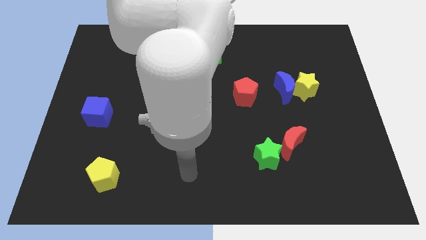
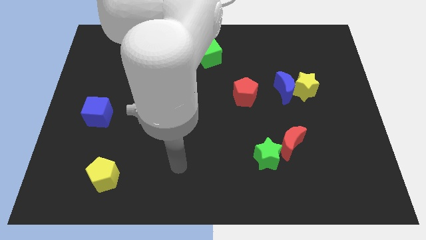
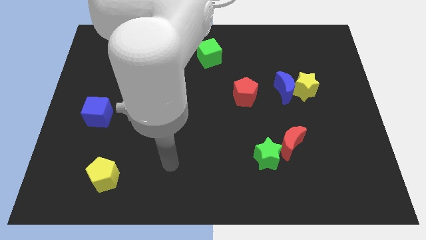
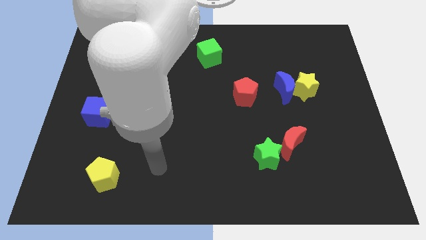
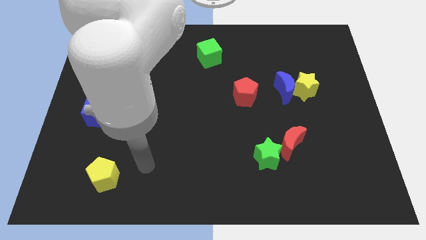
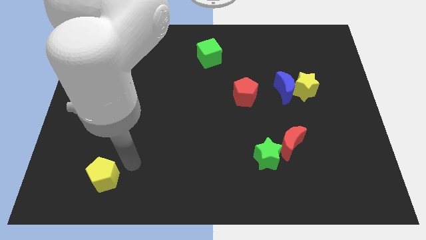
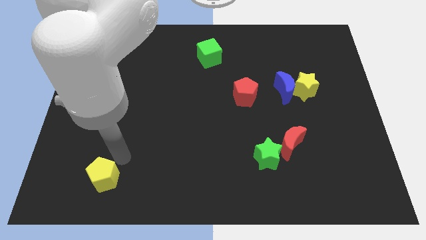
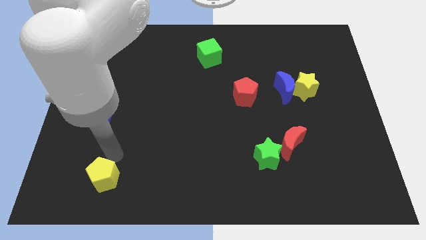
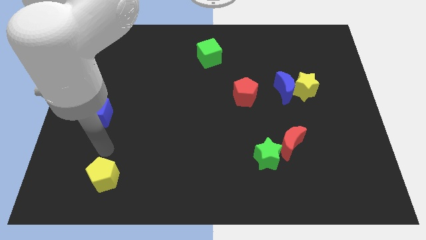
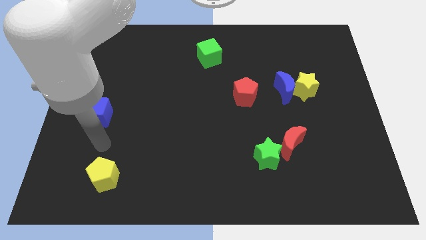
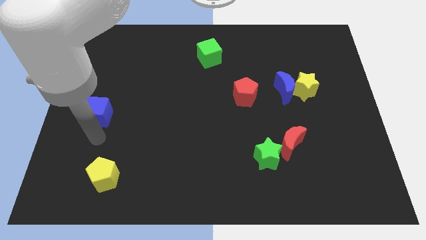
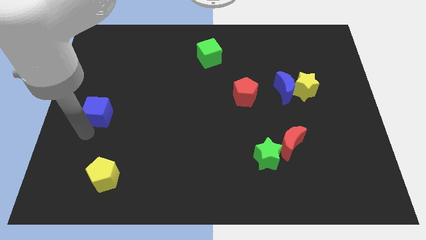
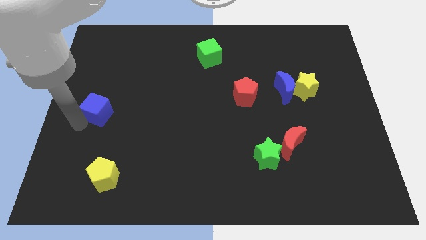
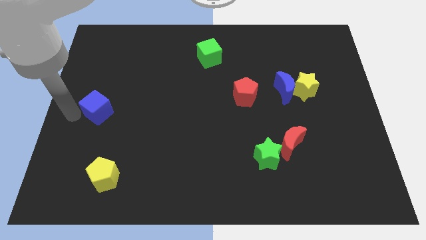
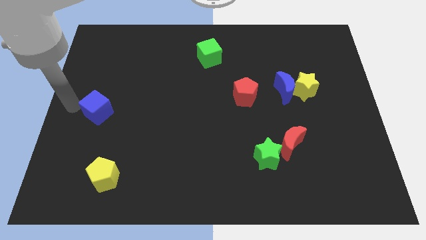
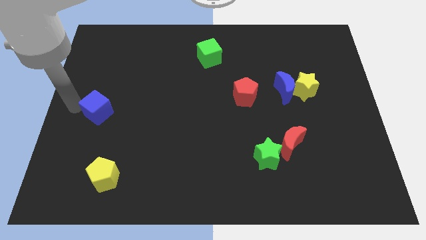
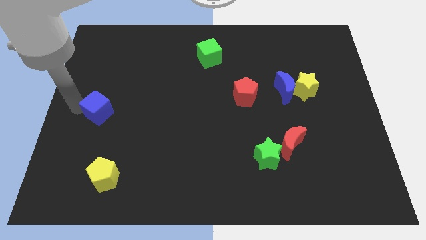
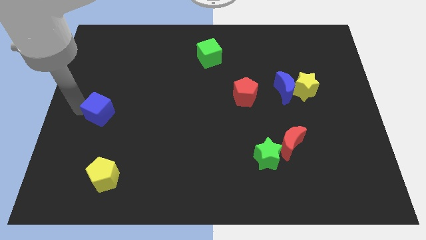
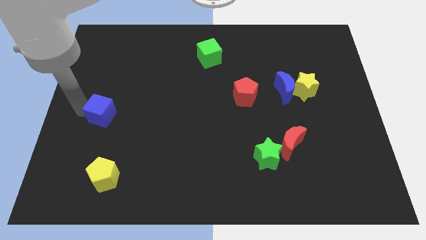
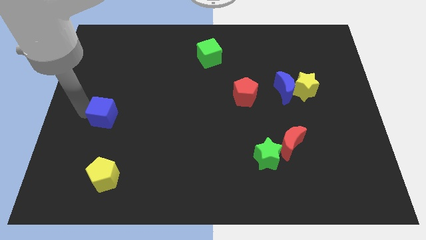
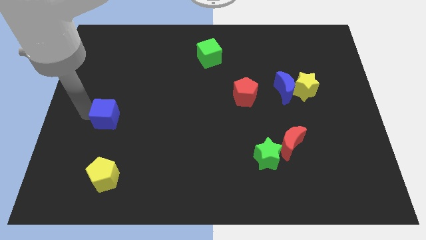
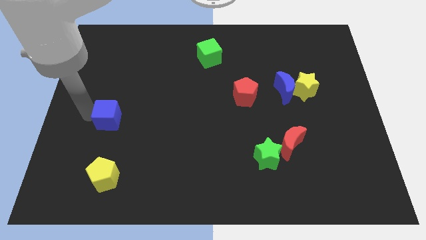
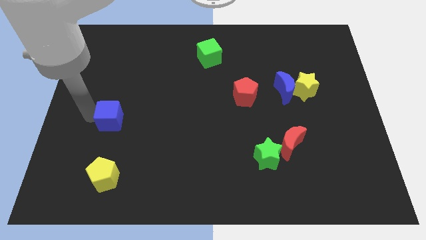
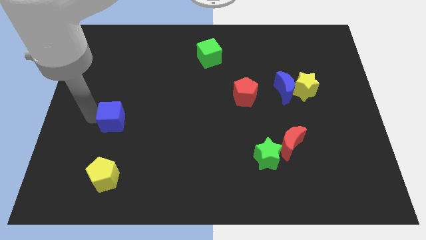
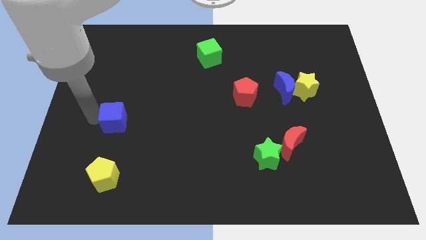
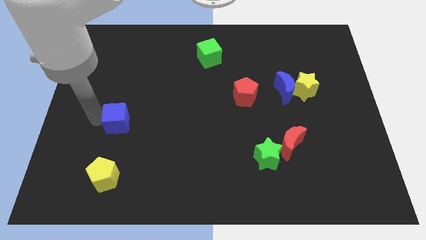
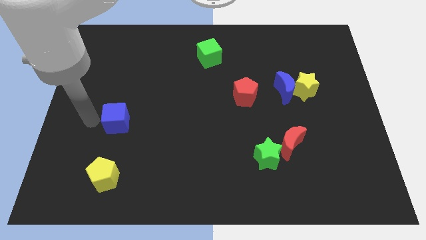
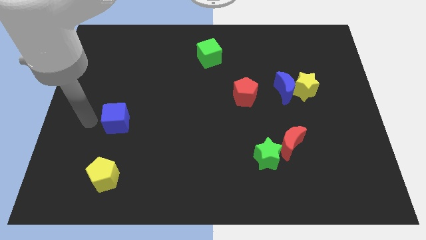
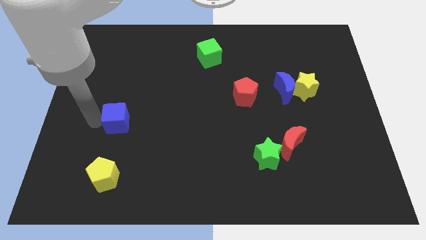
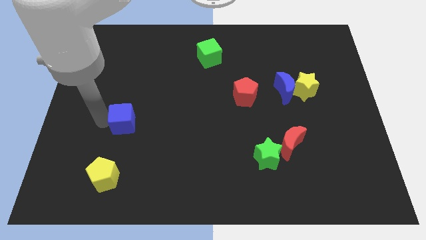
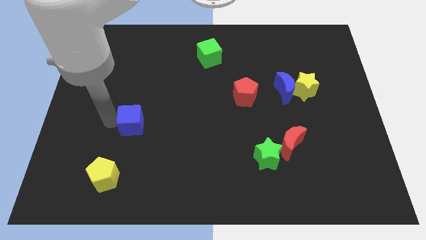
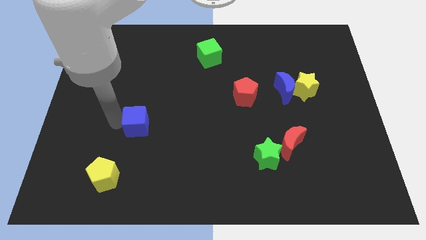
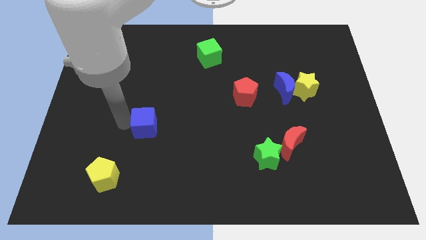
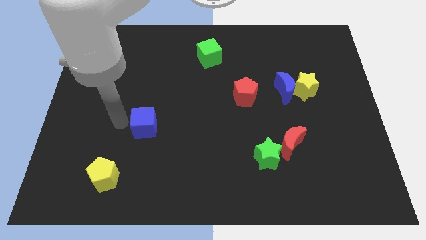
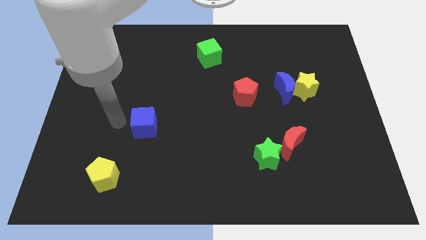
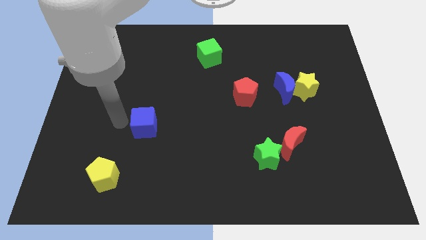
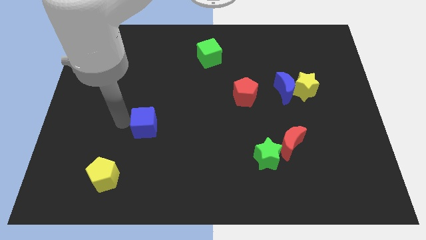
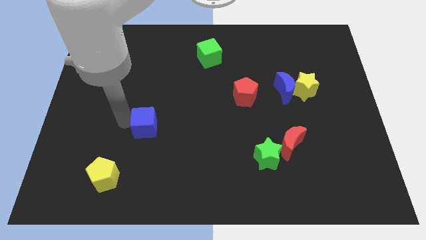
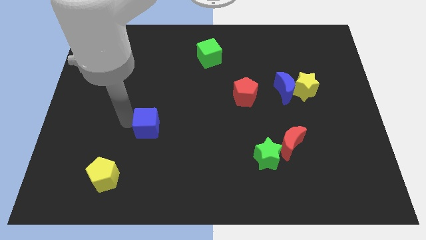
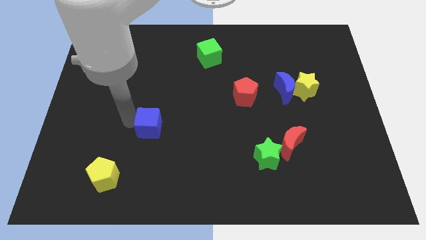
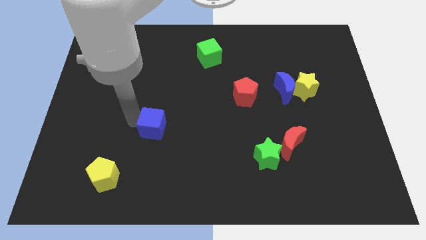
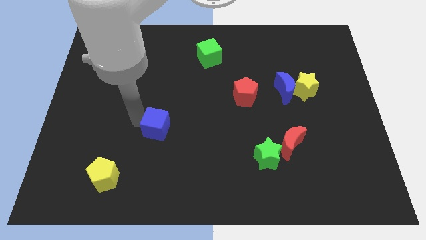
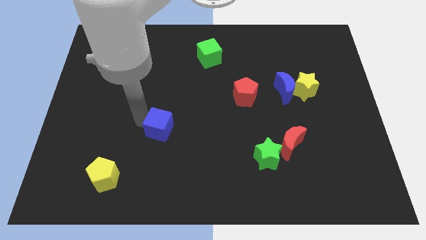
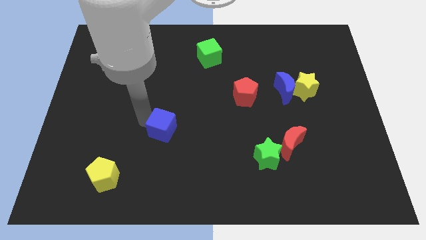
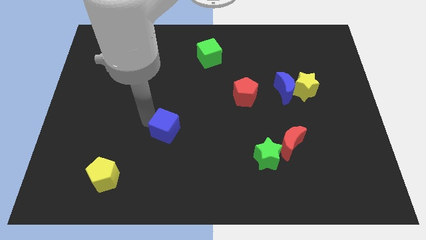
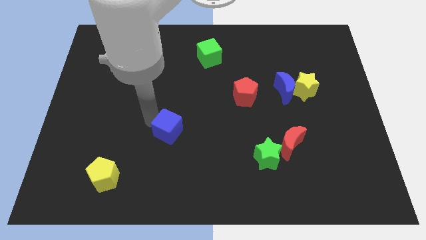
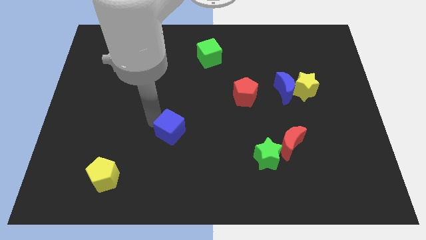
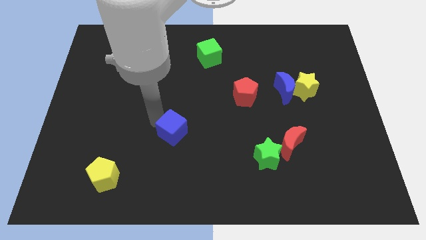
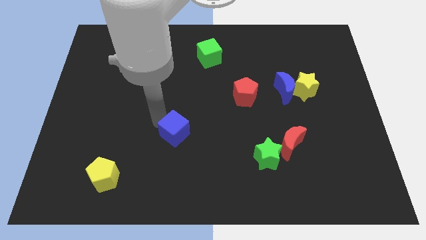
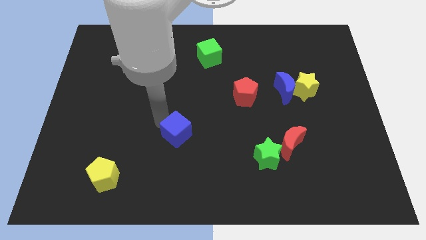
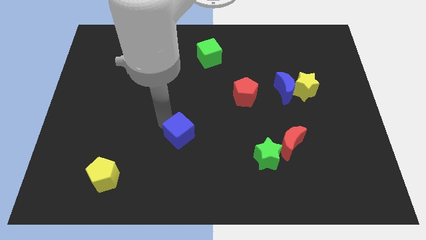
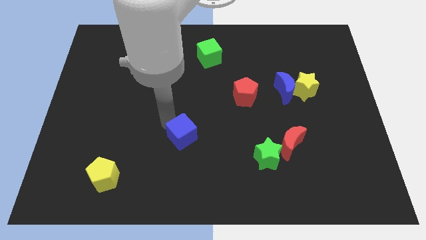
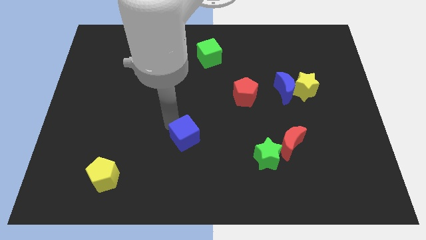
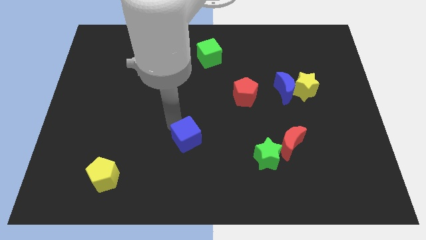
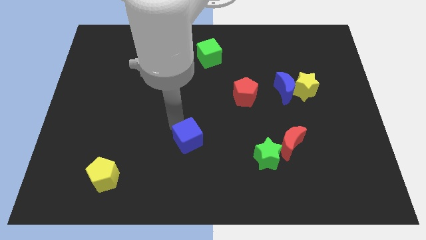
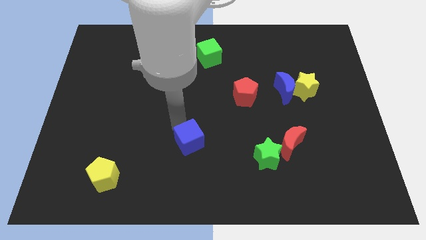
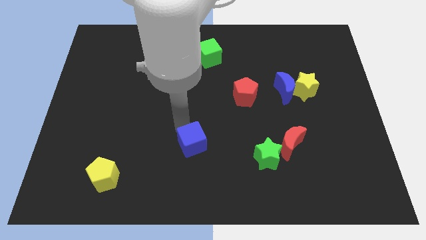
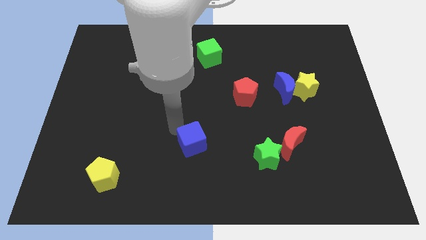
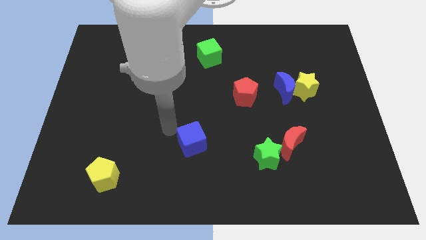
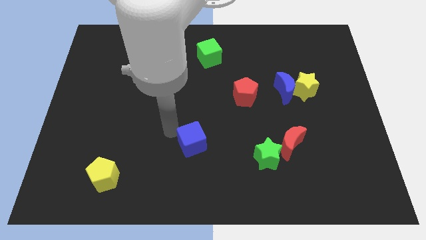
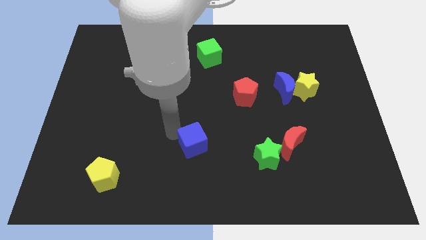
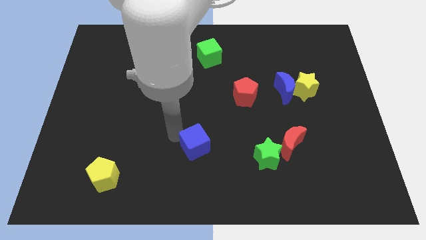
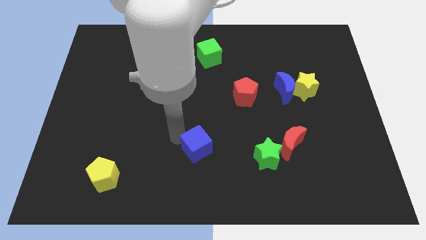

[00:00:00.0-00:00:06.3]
put the blue cube left of the green star

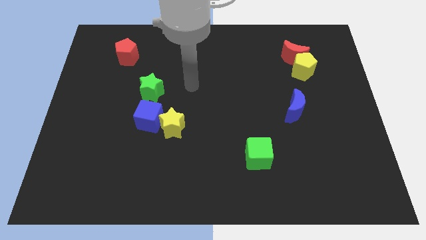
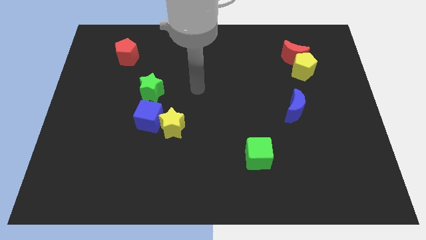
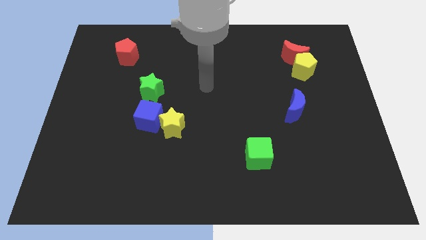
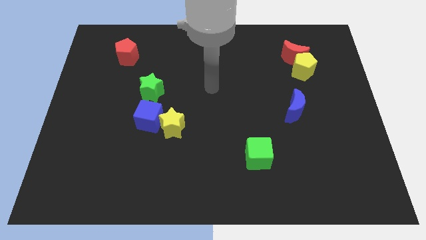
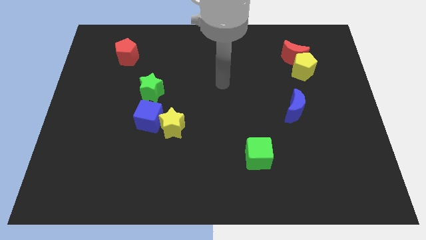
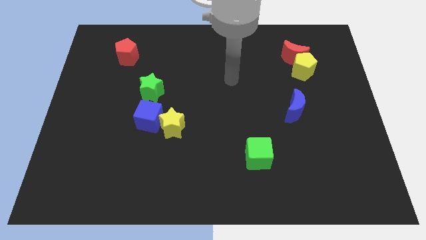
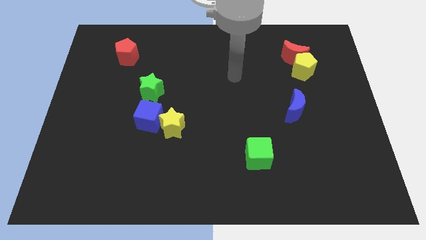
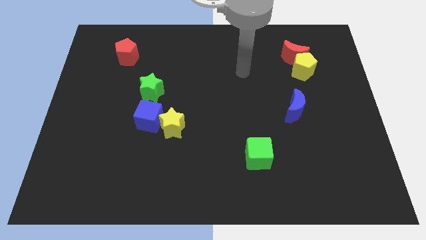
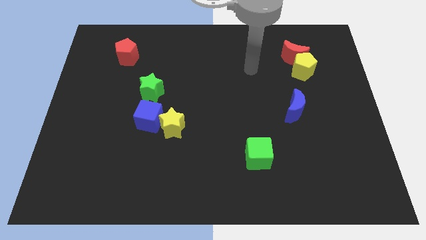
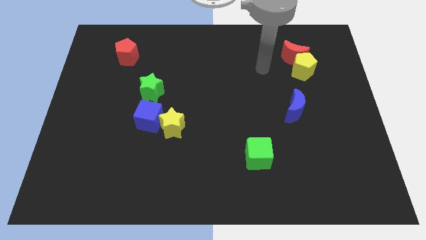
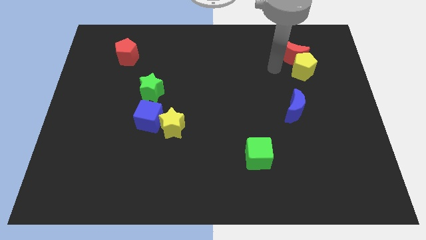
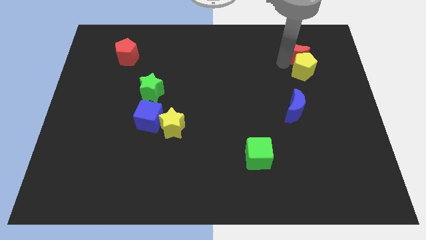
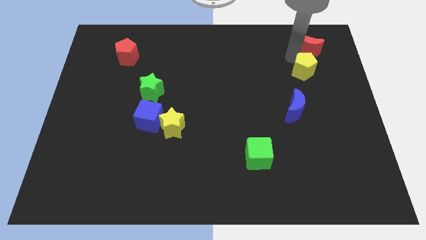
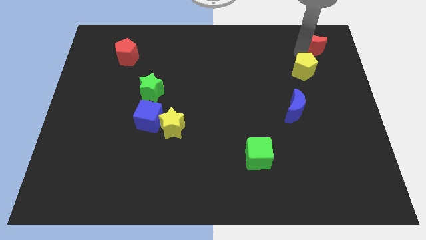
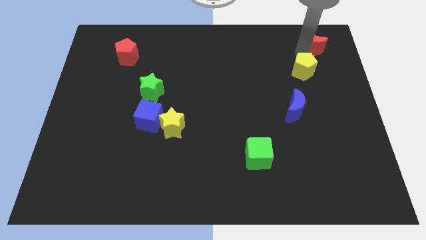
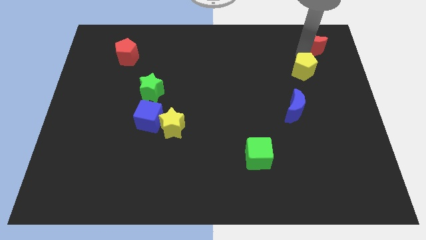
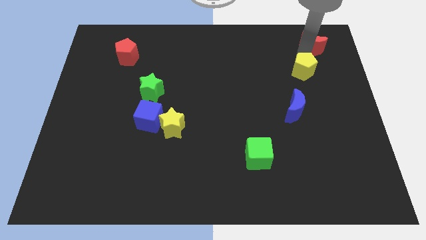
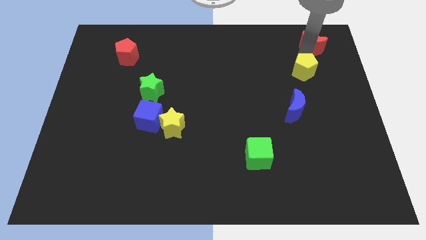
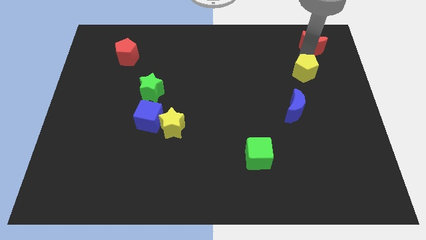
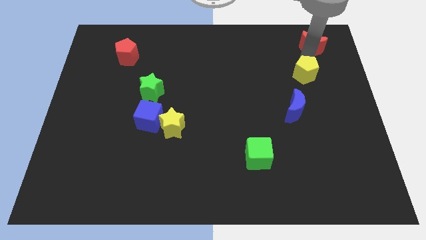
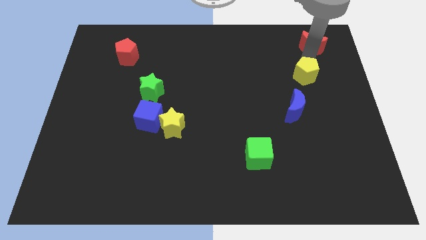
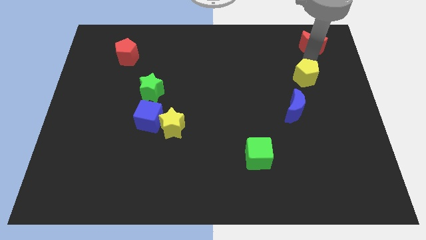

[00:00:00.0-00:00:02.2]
push the yellow pentagon to the top right of the blue moon
